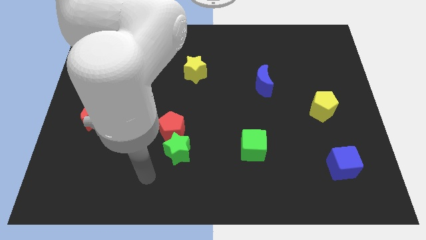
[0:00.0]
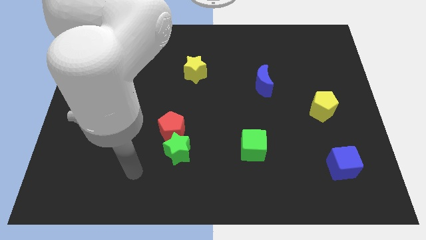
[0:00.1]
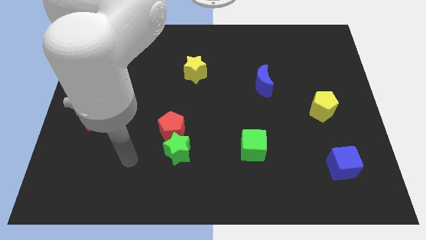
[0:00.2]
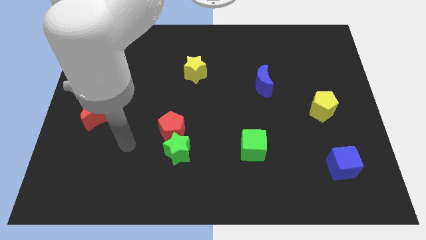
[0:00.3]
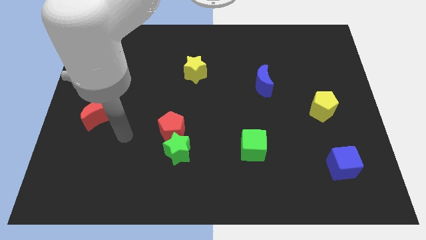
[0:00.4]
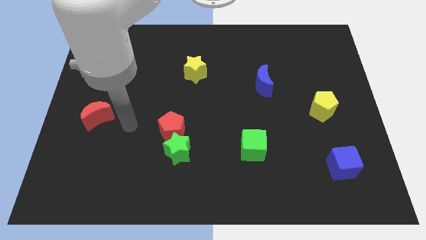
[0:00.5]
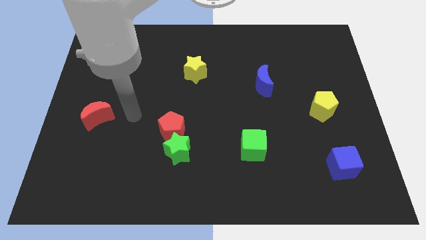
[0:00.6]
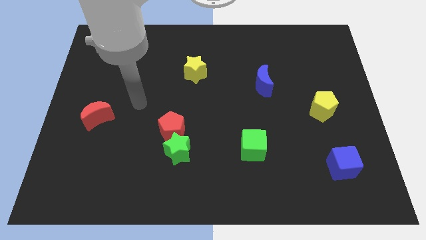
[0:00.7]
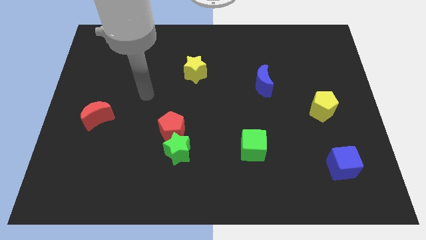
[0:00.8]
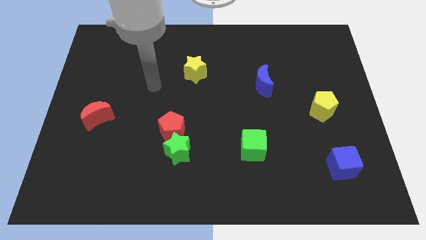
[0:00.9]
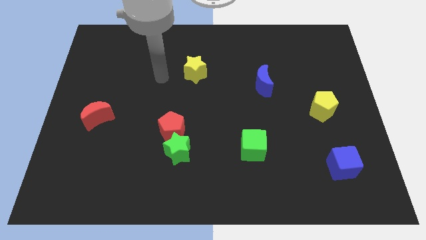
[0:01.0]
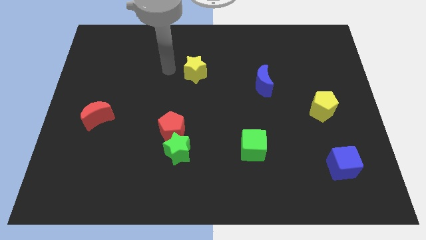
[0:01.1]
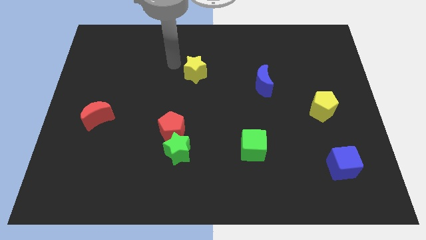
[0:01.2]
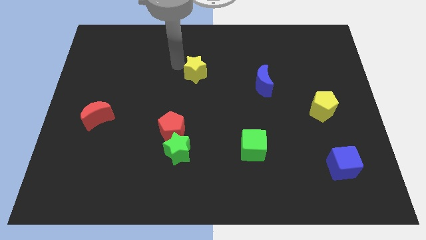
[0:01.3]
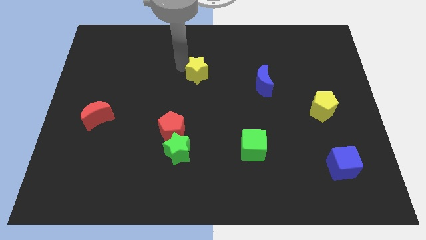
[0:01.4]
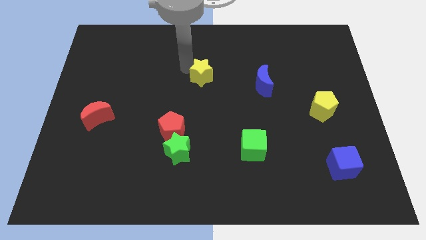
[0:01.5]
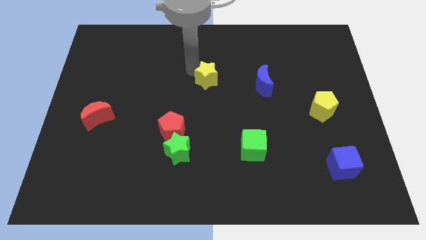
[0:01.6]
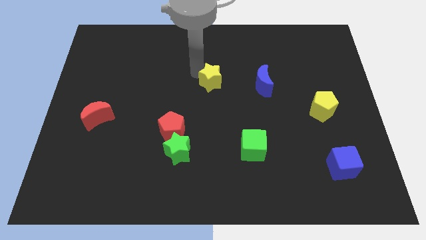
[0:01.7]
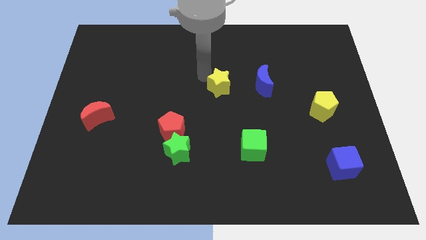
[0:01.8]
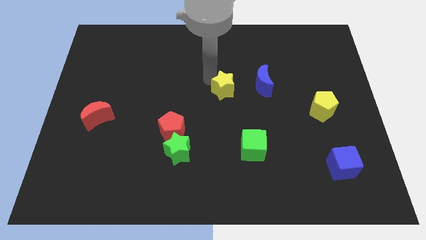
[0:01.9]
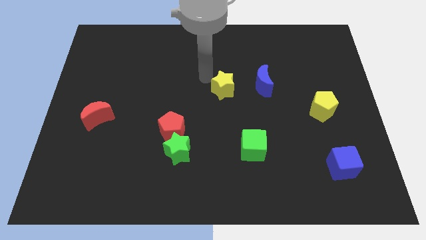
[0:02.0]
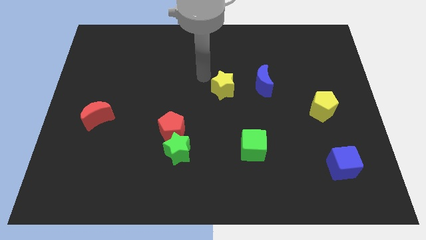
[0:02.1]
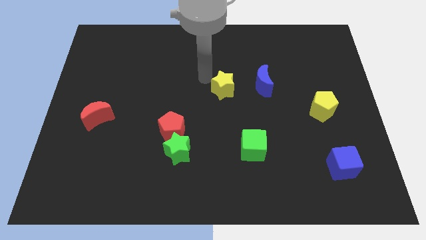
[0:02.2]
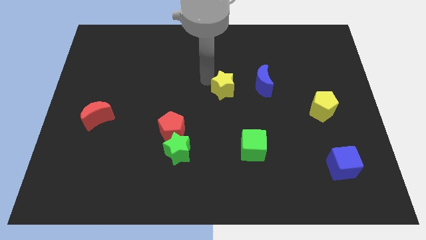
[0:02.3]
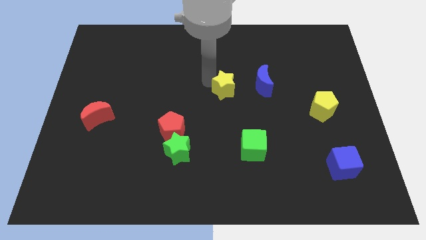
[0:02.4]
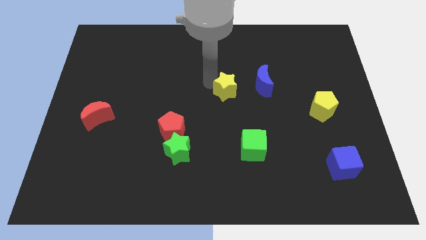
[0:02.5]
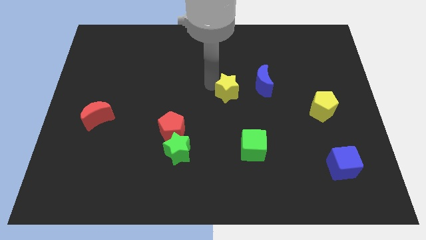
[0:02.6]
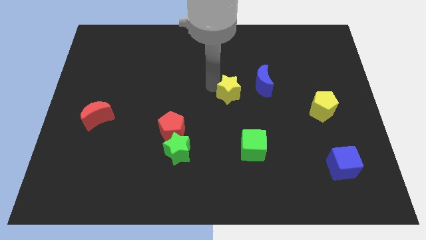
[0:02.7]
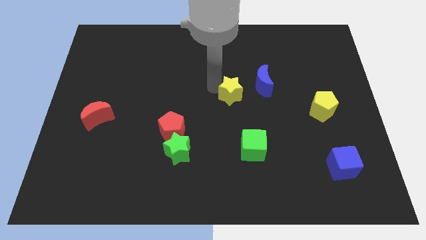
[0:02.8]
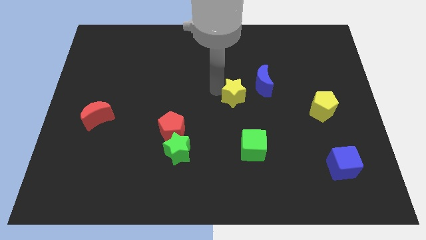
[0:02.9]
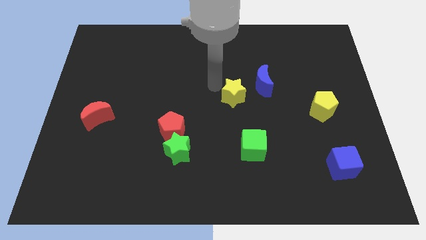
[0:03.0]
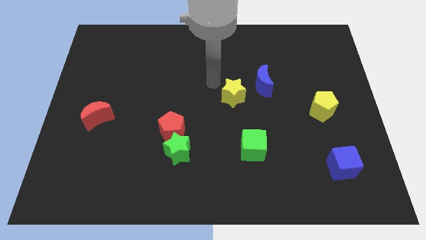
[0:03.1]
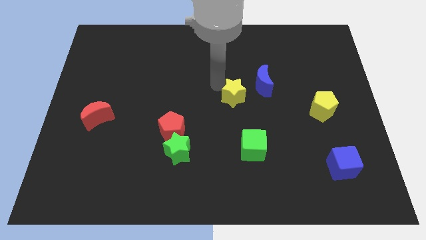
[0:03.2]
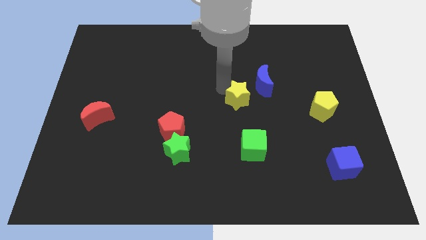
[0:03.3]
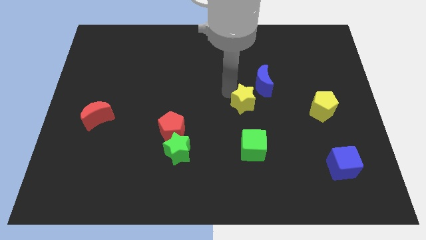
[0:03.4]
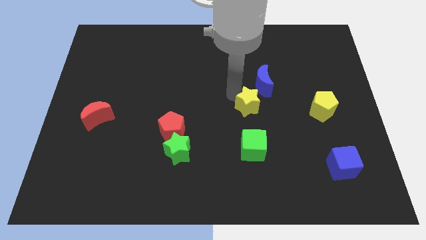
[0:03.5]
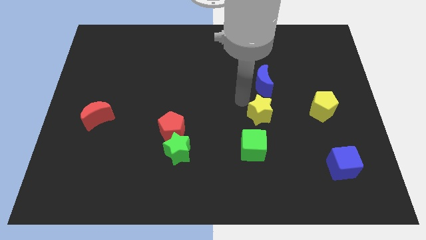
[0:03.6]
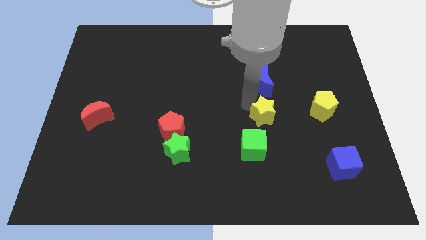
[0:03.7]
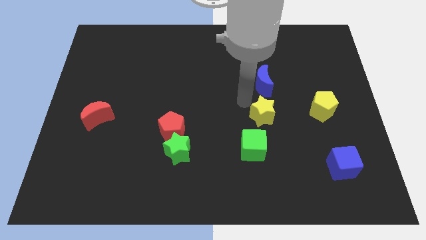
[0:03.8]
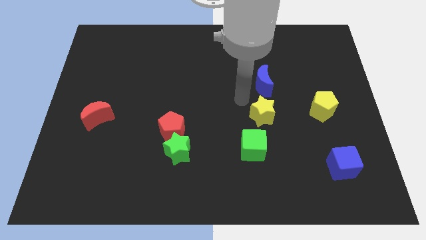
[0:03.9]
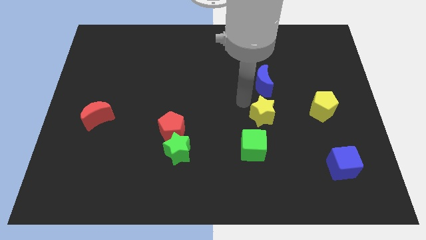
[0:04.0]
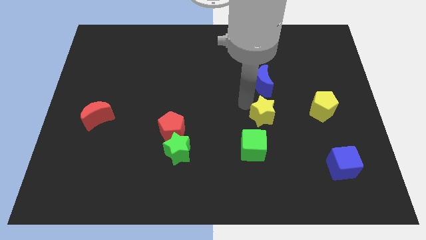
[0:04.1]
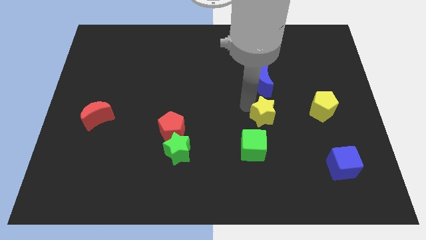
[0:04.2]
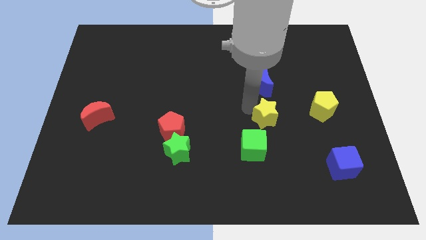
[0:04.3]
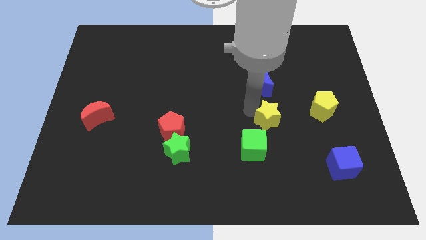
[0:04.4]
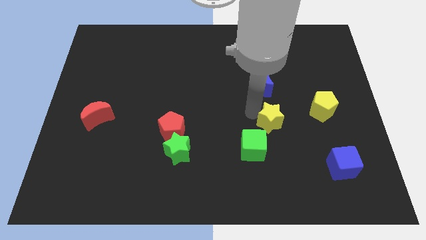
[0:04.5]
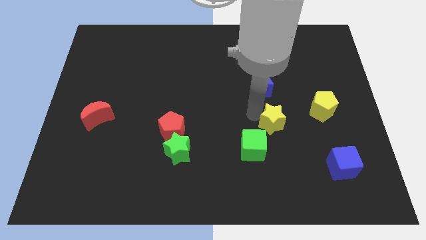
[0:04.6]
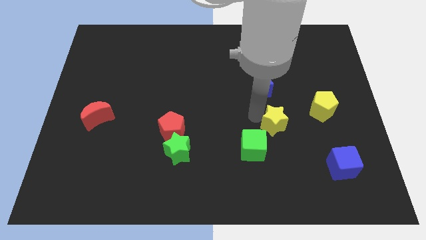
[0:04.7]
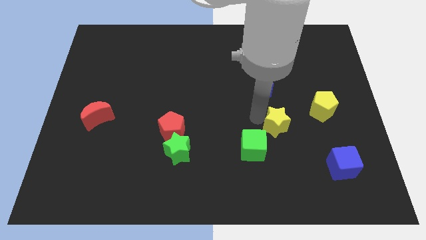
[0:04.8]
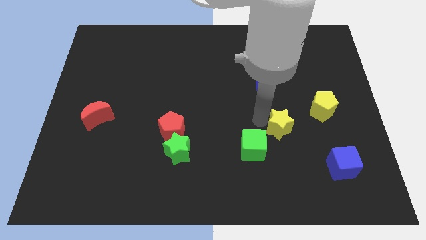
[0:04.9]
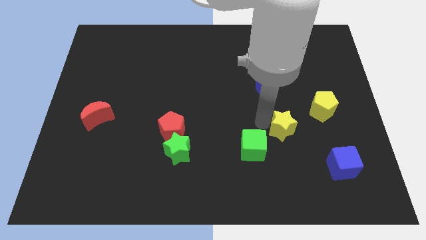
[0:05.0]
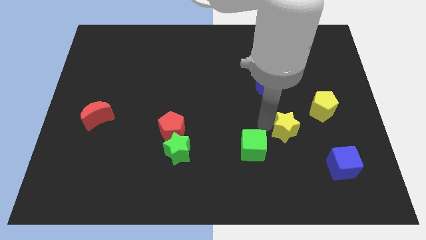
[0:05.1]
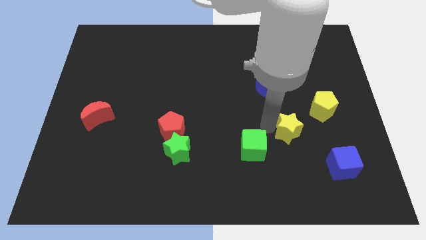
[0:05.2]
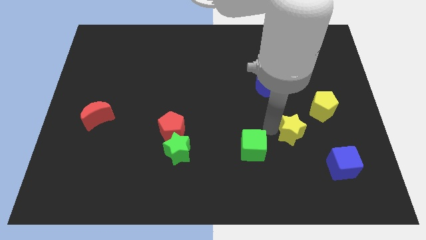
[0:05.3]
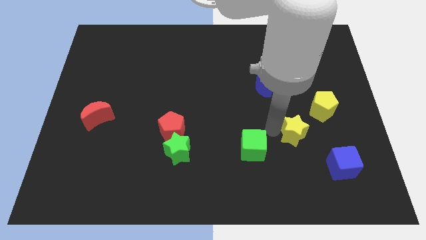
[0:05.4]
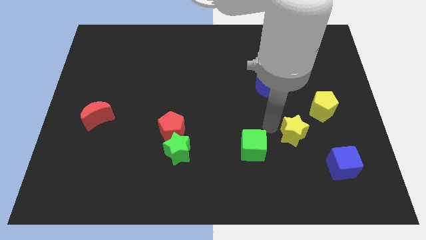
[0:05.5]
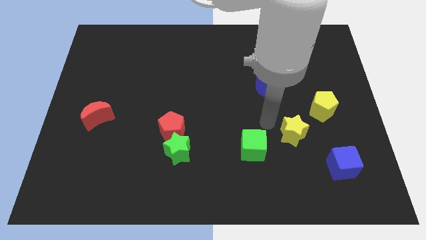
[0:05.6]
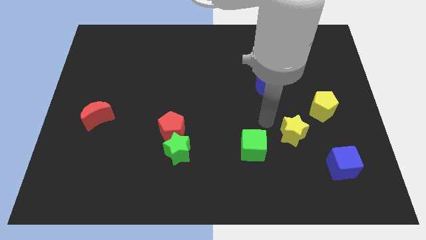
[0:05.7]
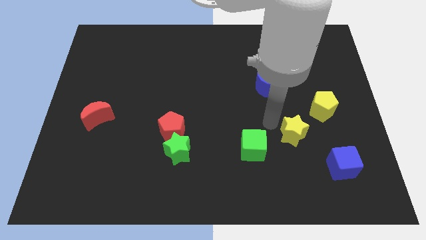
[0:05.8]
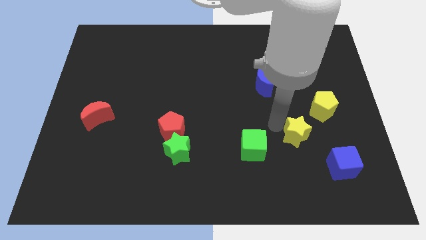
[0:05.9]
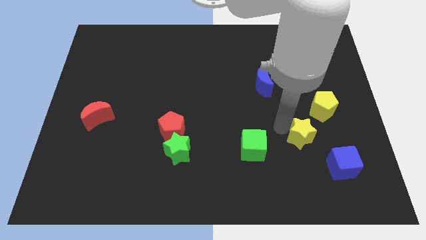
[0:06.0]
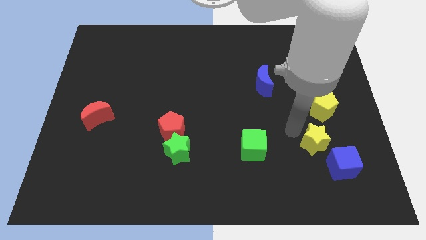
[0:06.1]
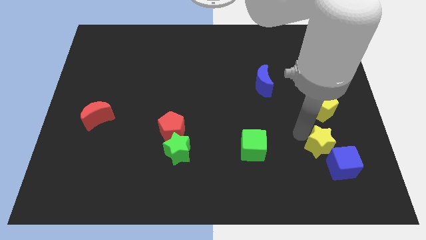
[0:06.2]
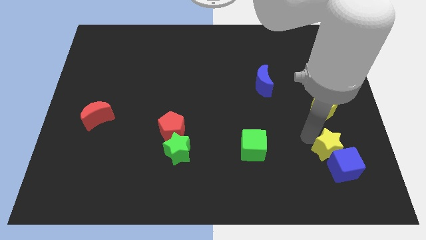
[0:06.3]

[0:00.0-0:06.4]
put the yellow star to the blue cube

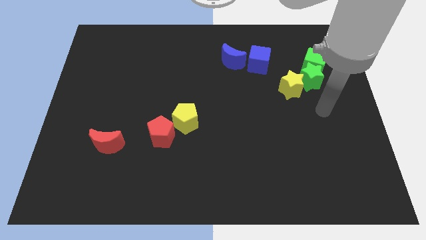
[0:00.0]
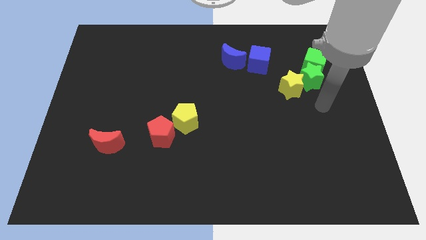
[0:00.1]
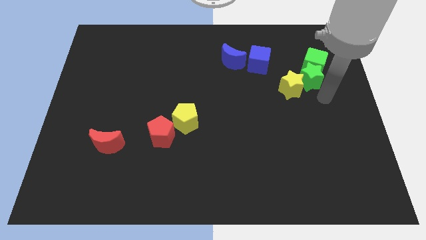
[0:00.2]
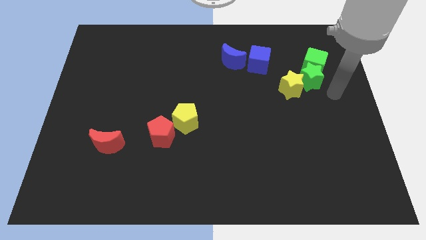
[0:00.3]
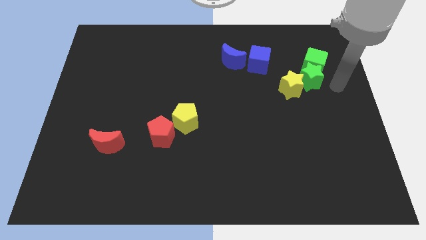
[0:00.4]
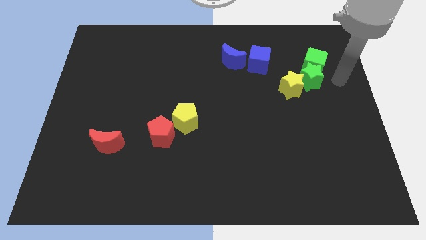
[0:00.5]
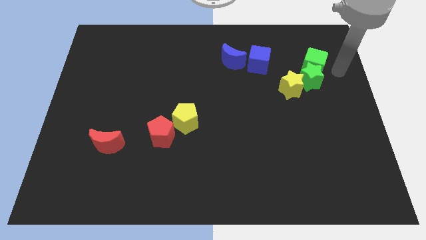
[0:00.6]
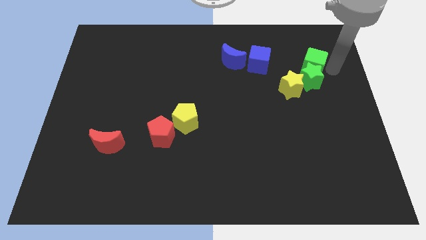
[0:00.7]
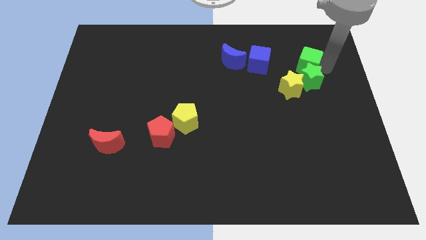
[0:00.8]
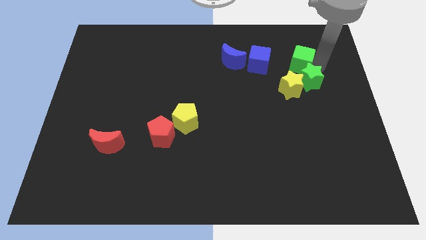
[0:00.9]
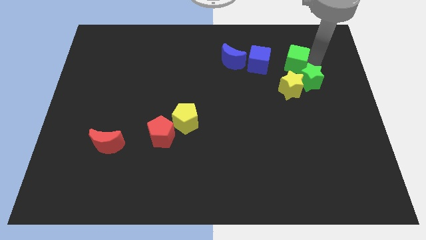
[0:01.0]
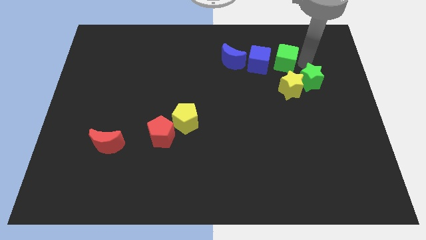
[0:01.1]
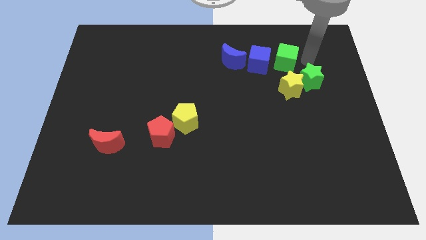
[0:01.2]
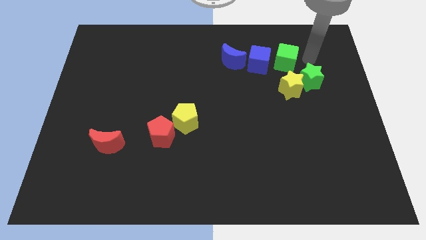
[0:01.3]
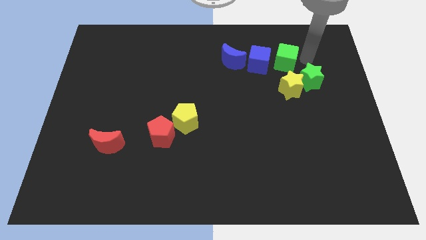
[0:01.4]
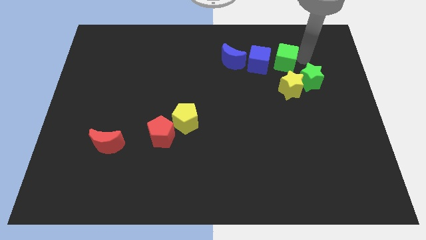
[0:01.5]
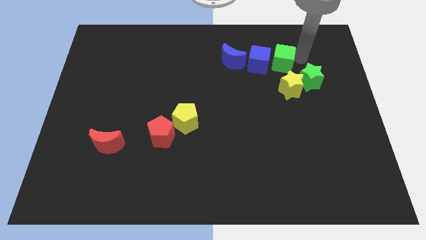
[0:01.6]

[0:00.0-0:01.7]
move the green cube to the blue cube
